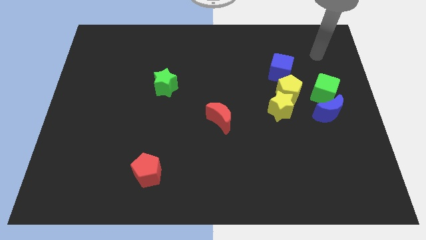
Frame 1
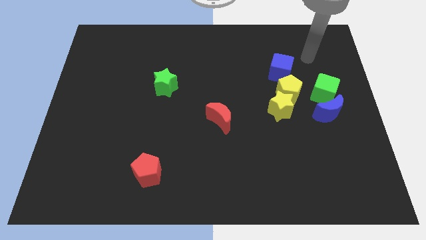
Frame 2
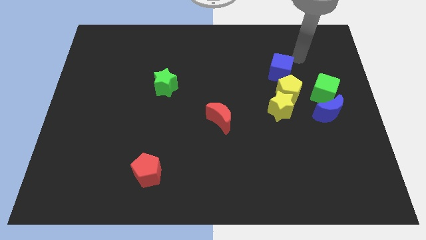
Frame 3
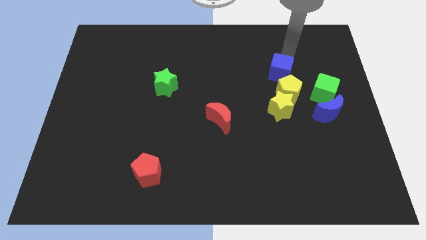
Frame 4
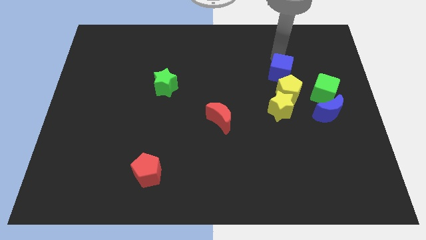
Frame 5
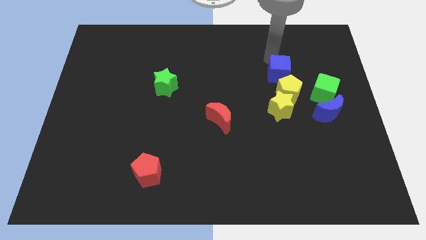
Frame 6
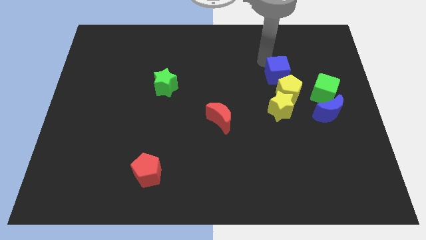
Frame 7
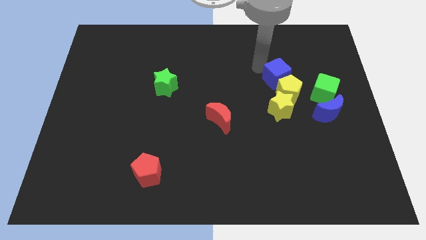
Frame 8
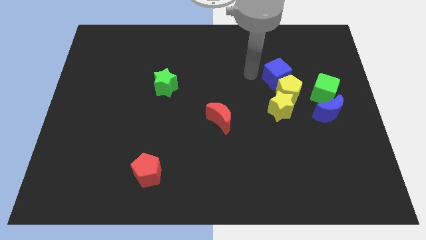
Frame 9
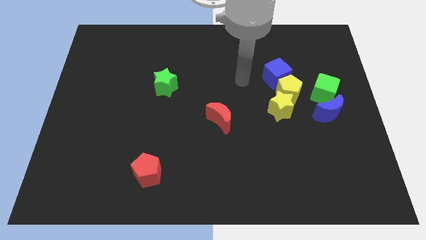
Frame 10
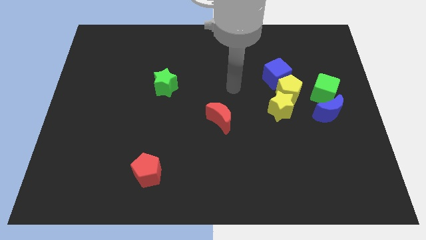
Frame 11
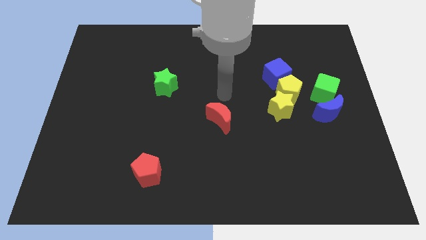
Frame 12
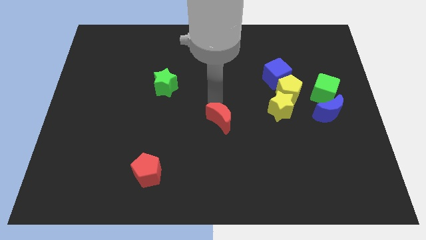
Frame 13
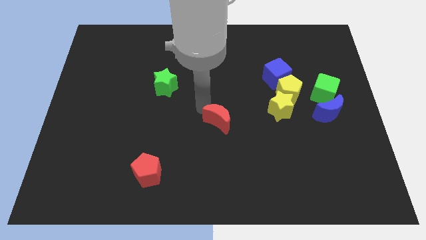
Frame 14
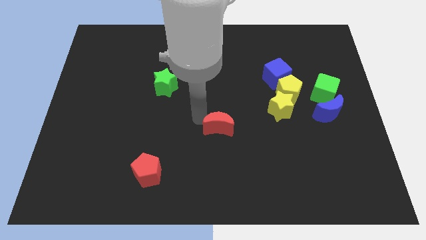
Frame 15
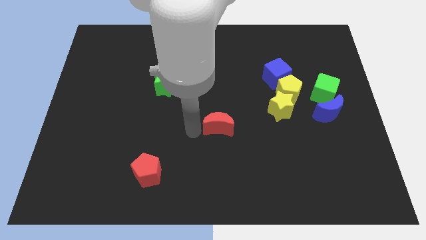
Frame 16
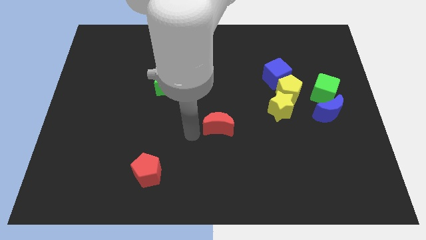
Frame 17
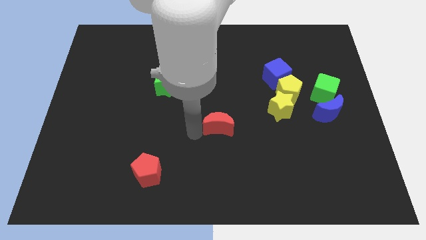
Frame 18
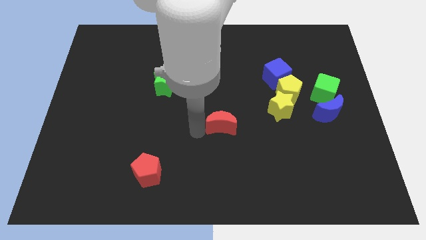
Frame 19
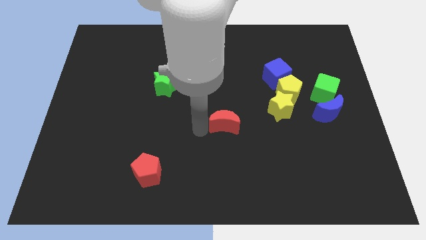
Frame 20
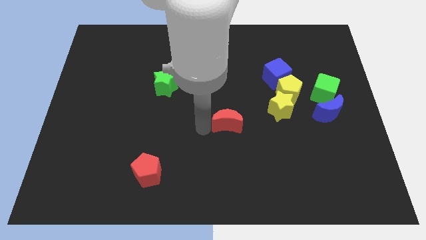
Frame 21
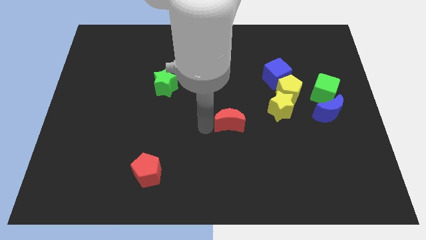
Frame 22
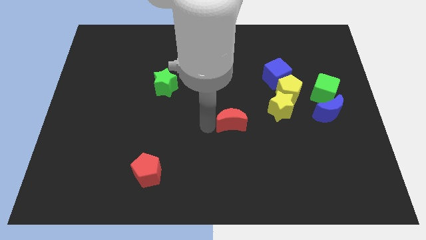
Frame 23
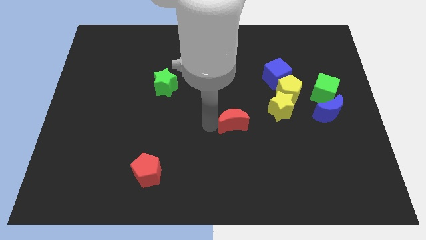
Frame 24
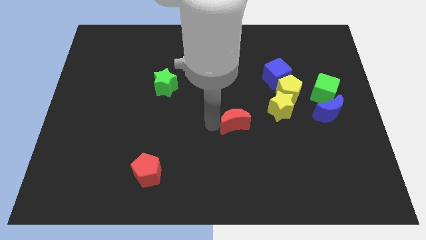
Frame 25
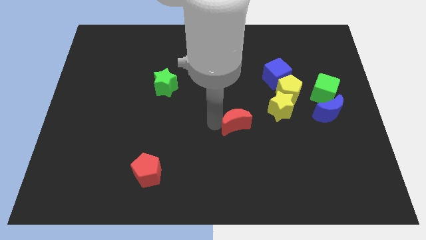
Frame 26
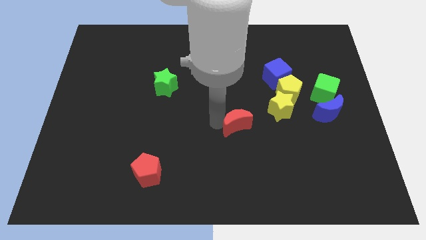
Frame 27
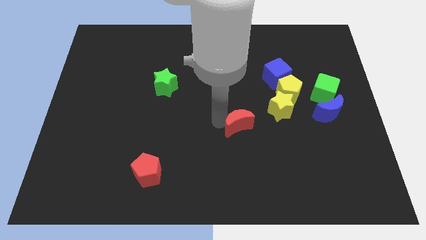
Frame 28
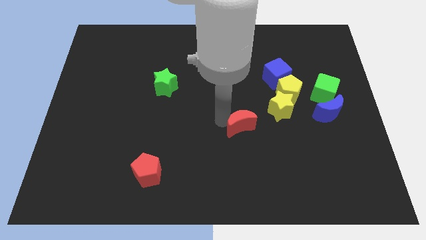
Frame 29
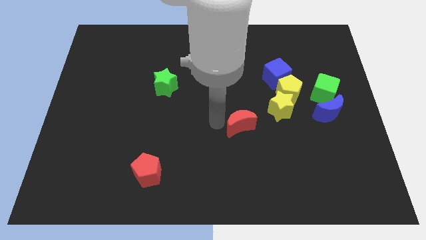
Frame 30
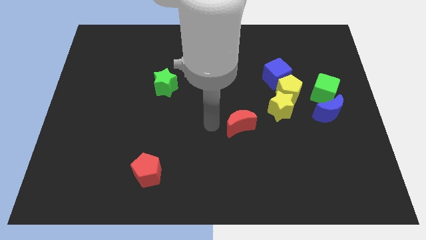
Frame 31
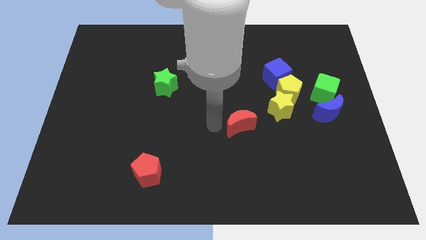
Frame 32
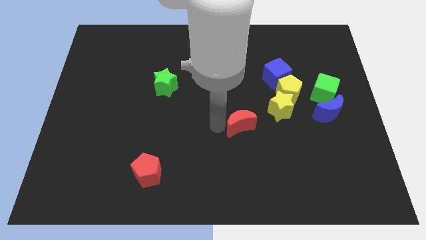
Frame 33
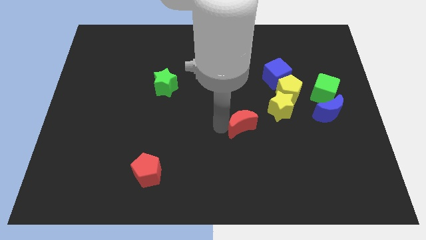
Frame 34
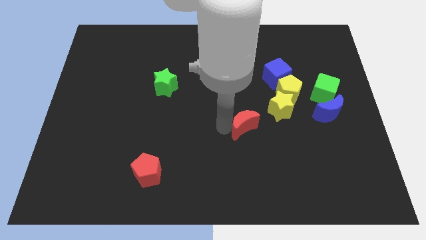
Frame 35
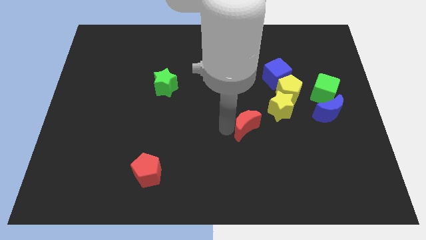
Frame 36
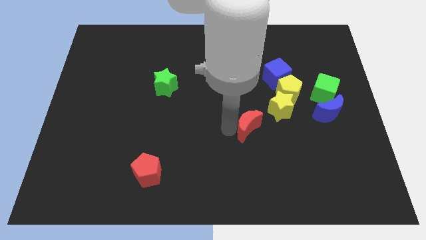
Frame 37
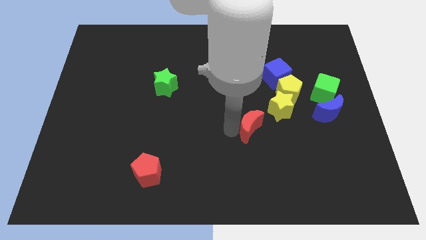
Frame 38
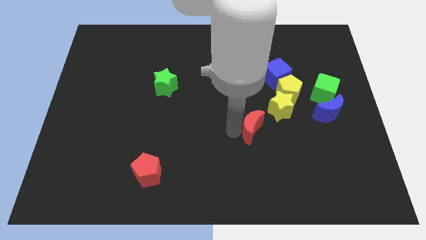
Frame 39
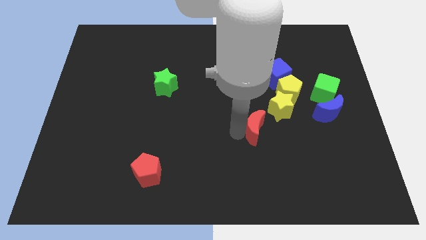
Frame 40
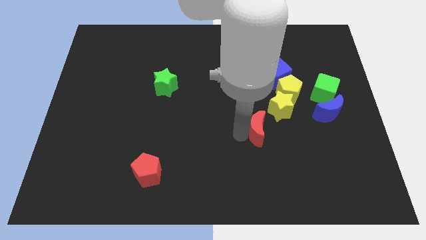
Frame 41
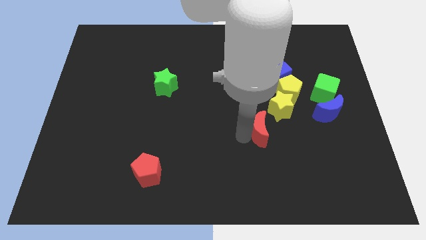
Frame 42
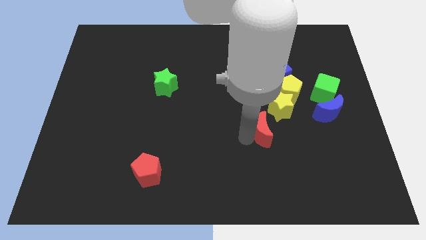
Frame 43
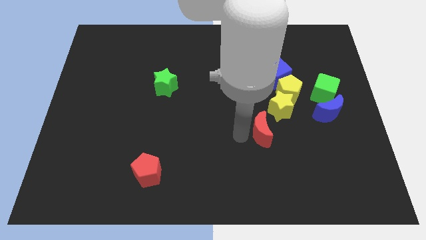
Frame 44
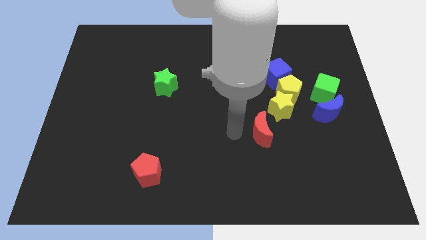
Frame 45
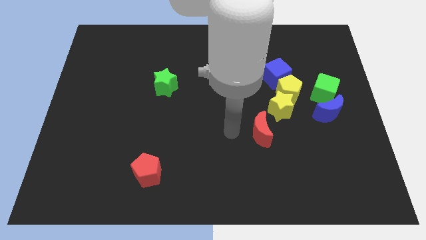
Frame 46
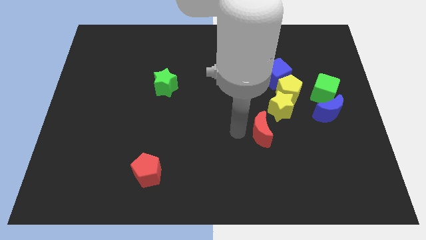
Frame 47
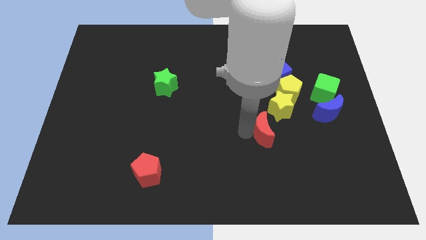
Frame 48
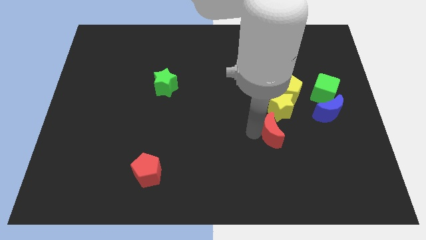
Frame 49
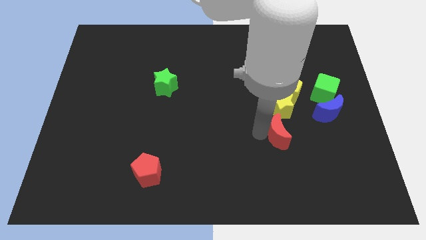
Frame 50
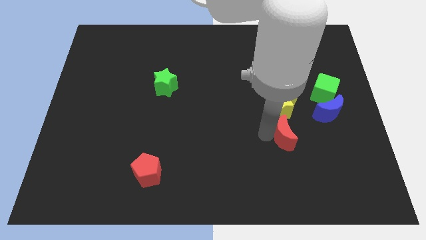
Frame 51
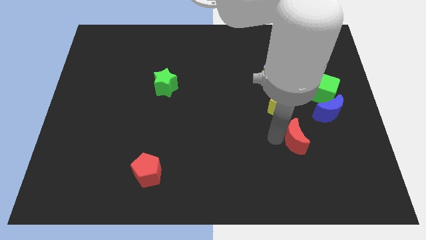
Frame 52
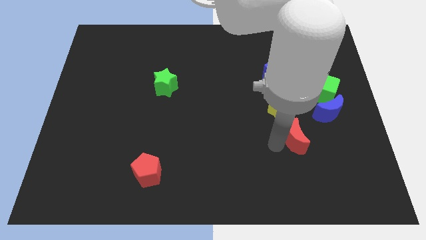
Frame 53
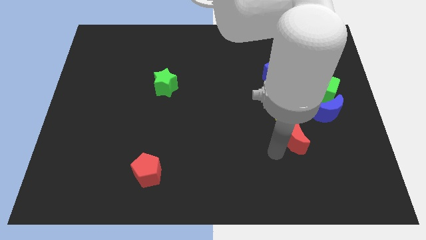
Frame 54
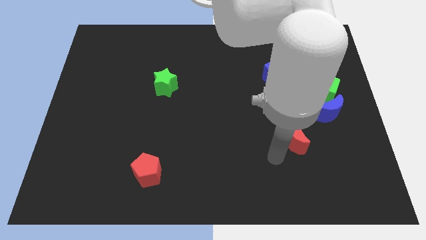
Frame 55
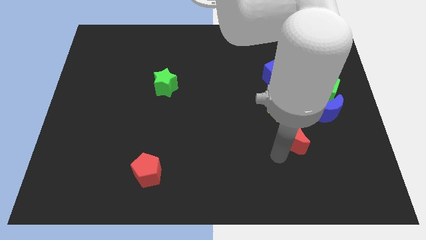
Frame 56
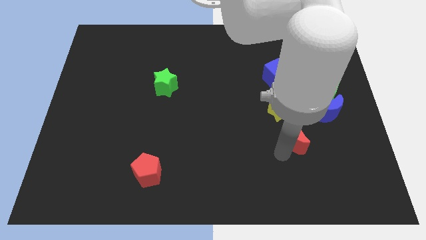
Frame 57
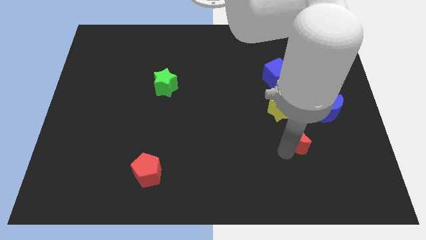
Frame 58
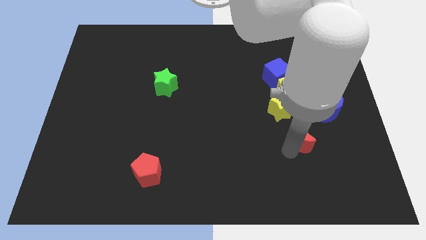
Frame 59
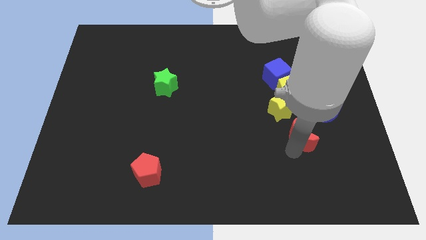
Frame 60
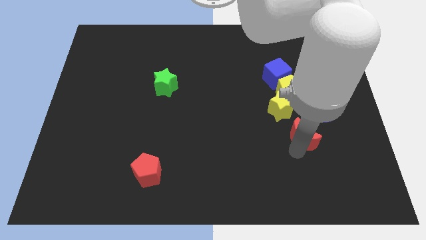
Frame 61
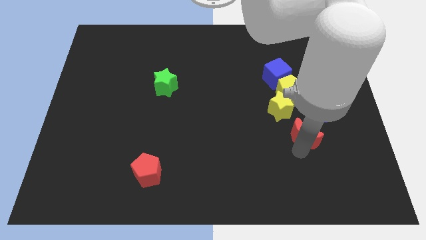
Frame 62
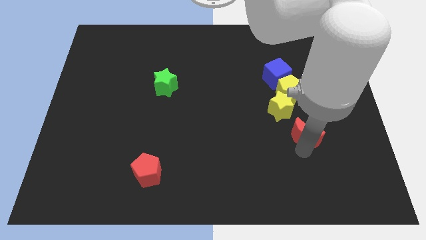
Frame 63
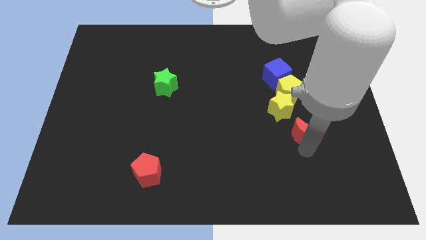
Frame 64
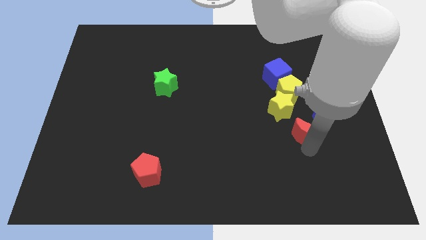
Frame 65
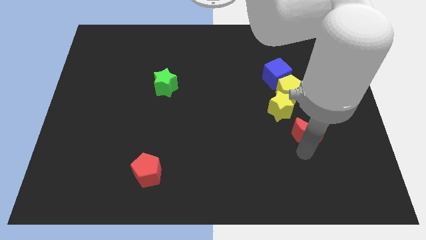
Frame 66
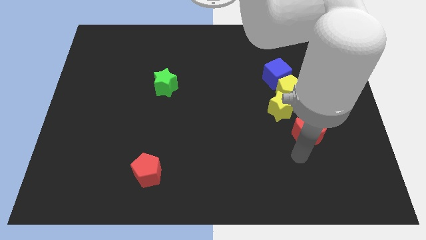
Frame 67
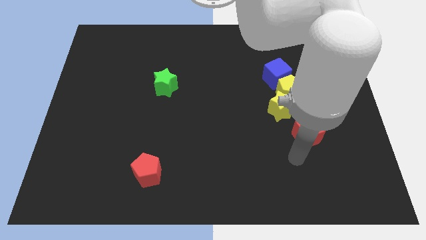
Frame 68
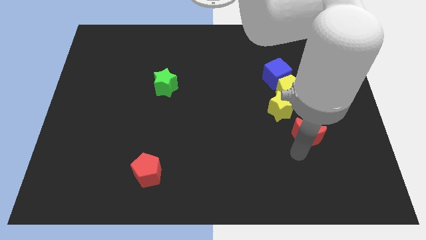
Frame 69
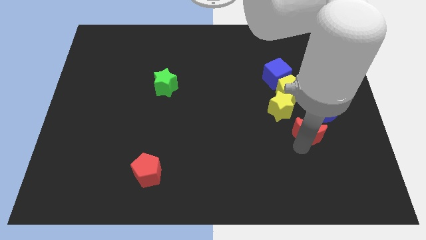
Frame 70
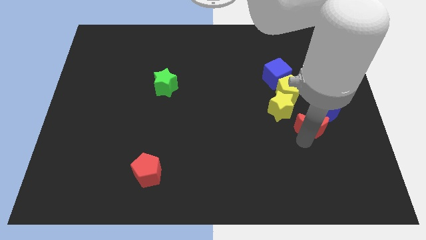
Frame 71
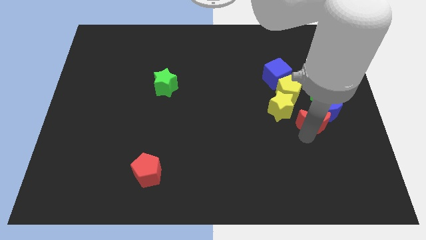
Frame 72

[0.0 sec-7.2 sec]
move the red moon close to the blue moon
